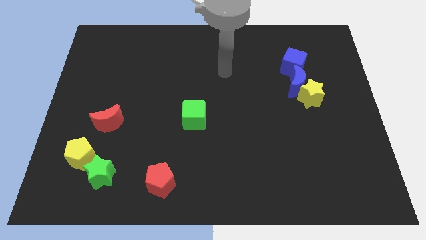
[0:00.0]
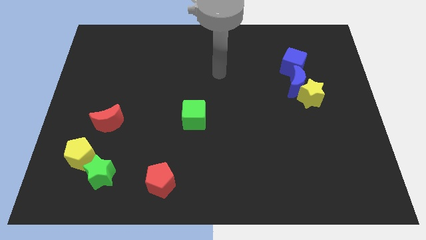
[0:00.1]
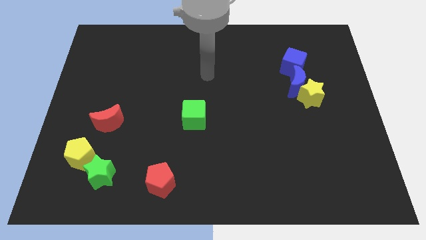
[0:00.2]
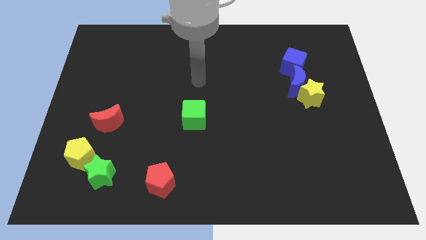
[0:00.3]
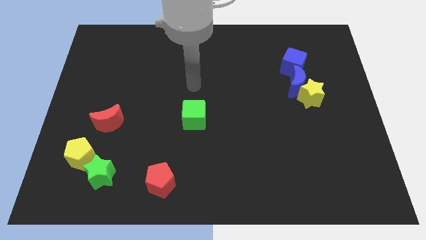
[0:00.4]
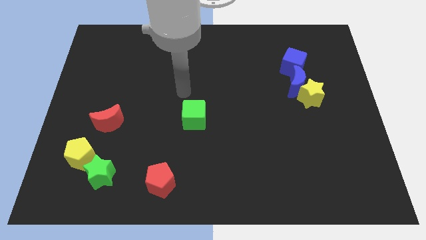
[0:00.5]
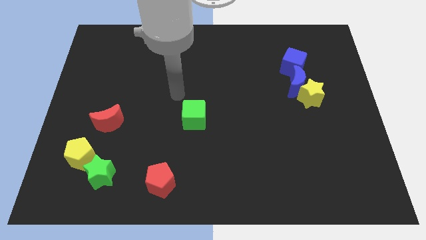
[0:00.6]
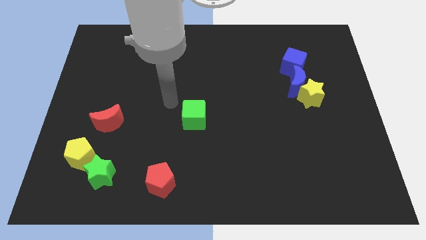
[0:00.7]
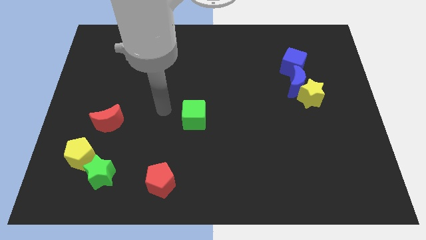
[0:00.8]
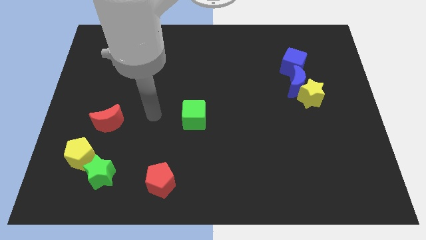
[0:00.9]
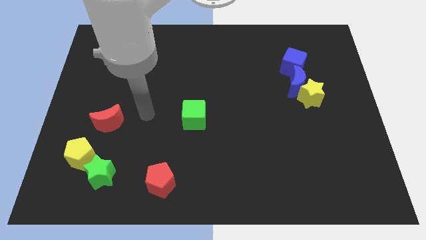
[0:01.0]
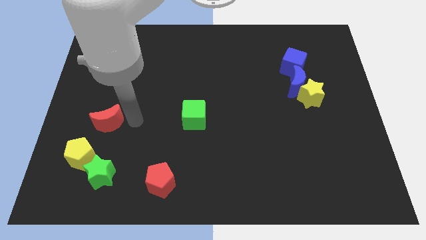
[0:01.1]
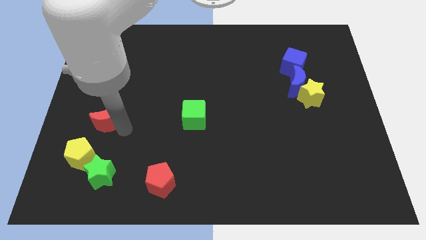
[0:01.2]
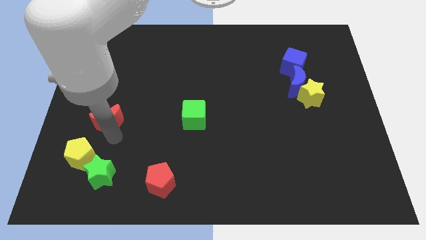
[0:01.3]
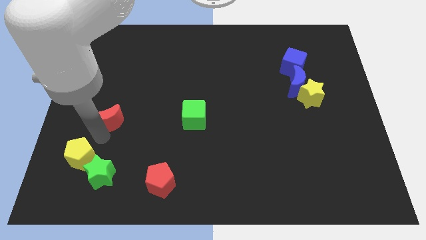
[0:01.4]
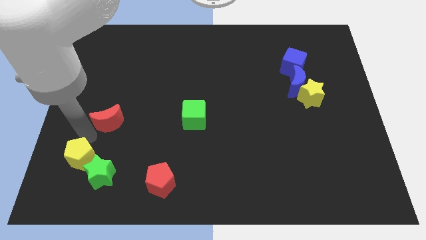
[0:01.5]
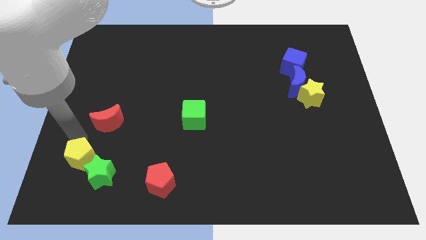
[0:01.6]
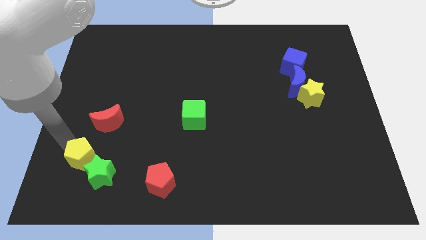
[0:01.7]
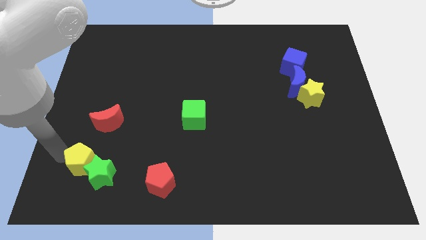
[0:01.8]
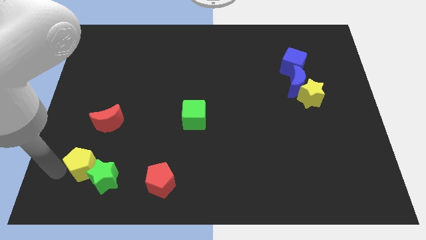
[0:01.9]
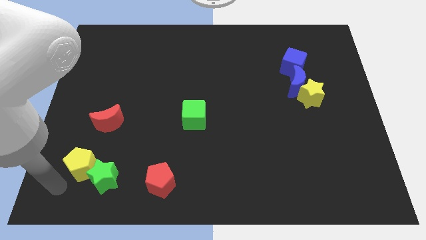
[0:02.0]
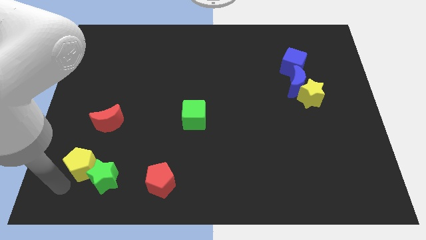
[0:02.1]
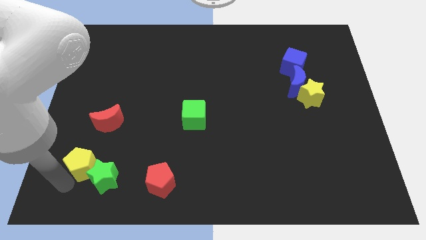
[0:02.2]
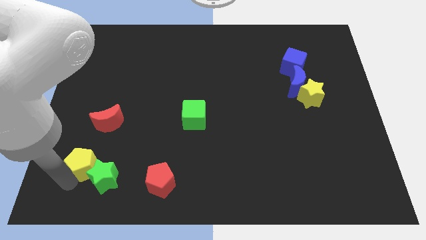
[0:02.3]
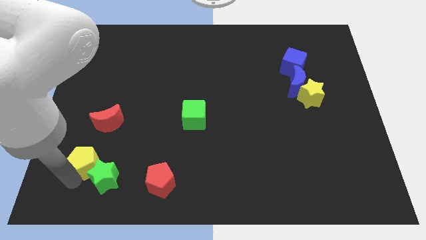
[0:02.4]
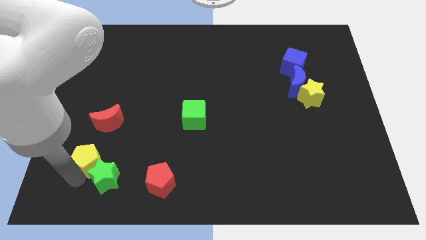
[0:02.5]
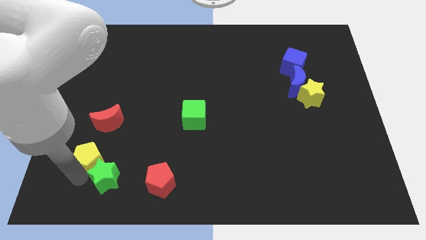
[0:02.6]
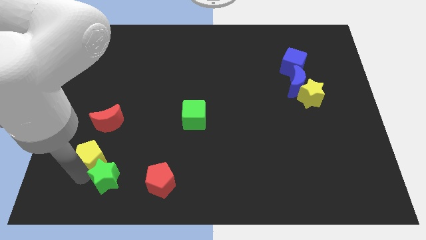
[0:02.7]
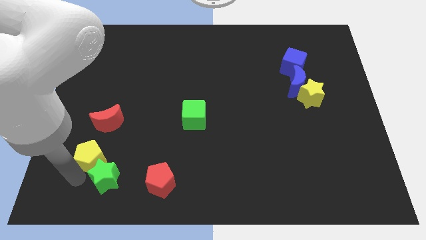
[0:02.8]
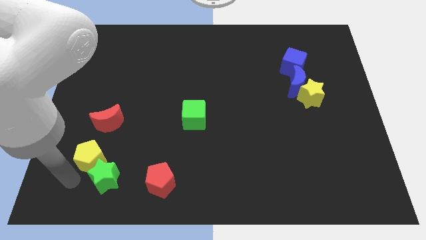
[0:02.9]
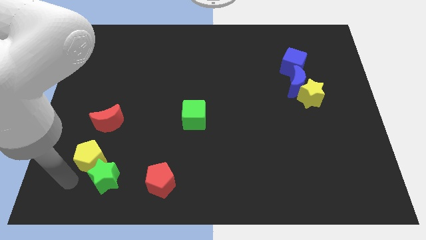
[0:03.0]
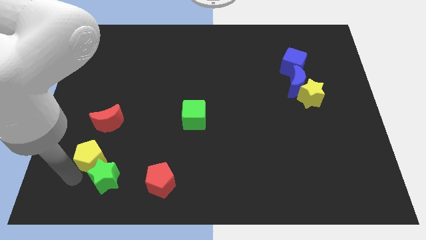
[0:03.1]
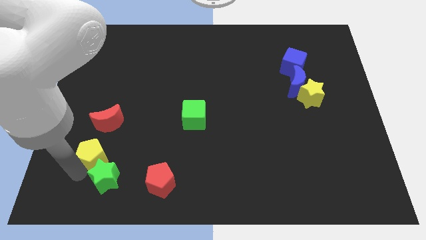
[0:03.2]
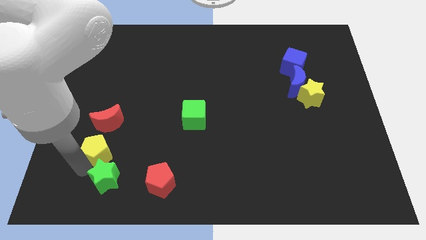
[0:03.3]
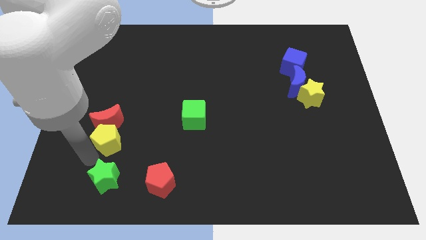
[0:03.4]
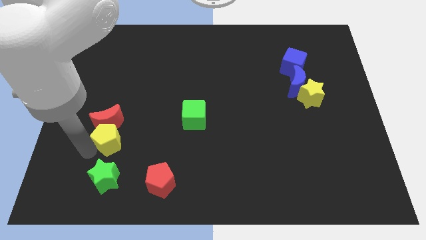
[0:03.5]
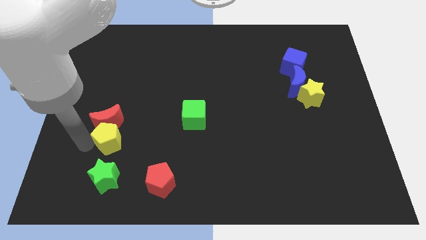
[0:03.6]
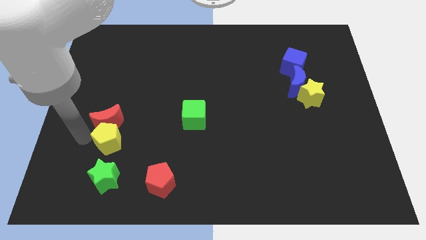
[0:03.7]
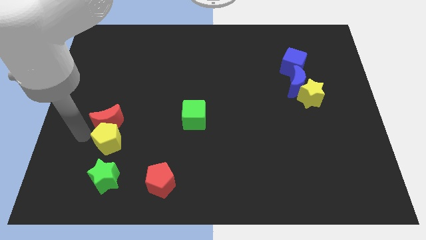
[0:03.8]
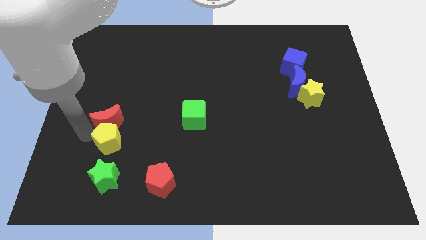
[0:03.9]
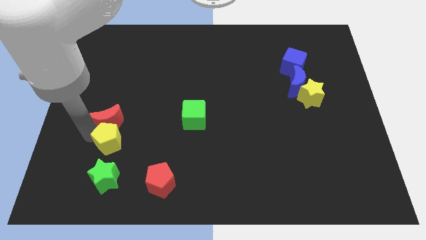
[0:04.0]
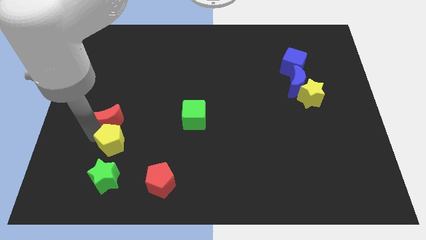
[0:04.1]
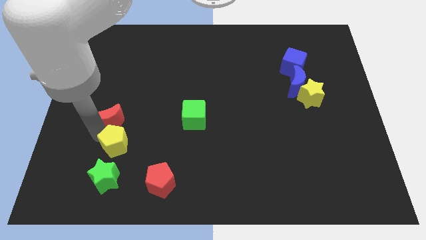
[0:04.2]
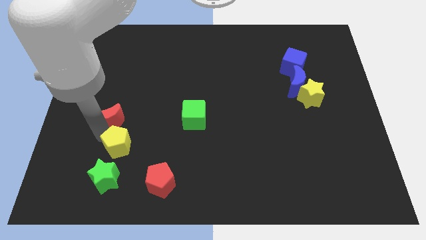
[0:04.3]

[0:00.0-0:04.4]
move the yellow pentagon a little to the right

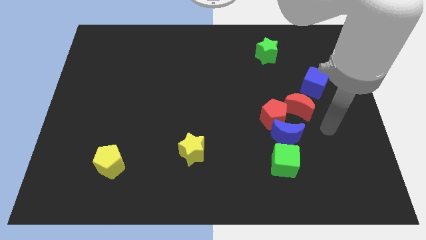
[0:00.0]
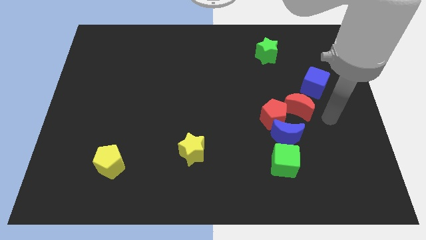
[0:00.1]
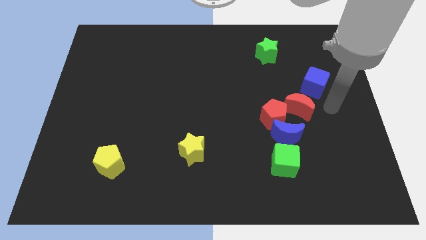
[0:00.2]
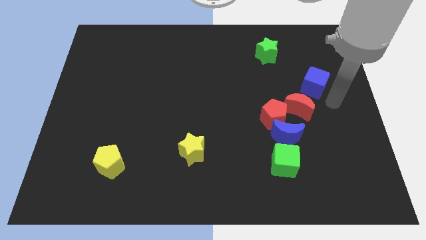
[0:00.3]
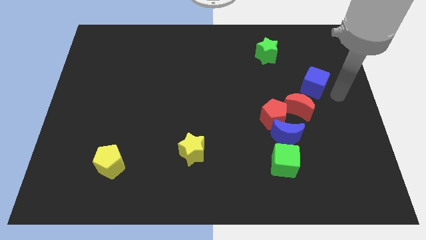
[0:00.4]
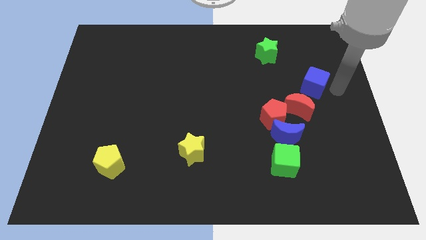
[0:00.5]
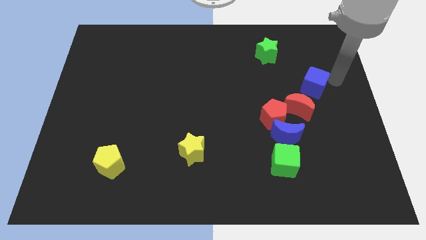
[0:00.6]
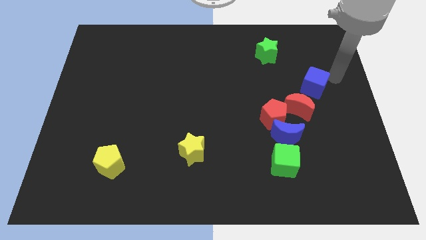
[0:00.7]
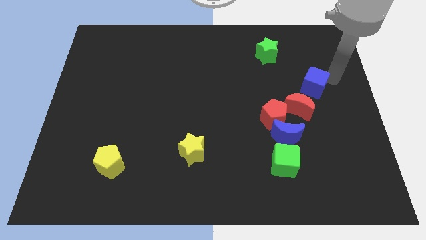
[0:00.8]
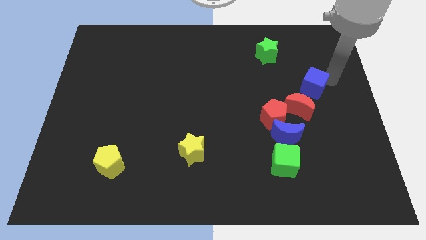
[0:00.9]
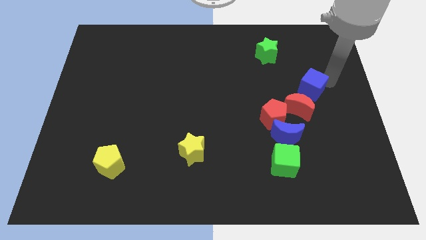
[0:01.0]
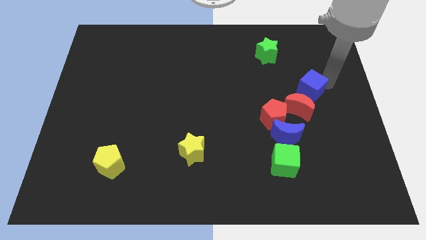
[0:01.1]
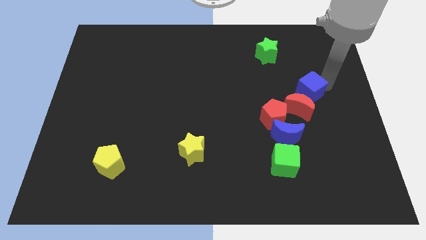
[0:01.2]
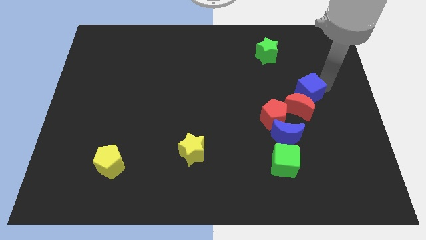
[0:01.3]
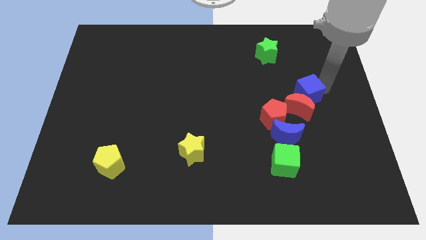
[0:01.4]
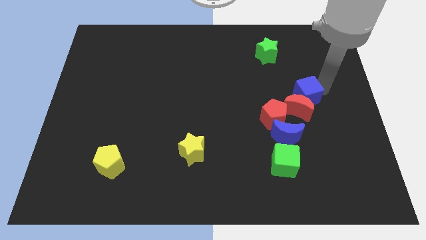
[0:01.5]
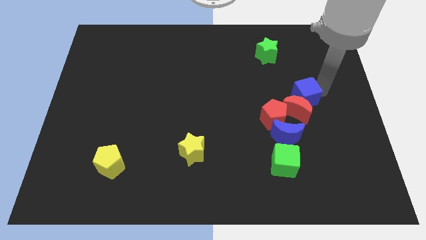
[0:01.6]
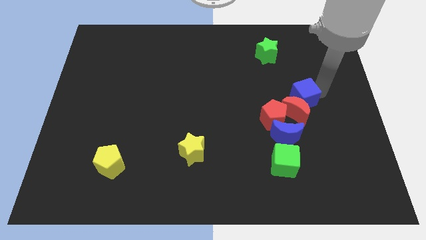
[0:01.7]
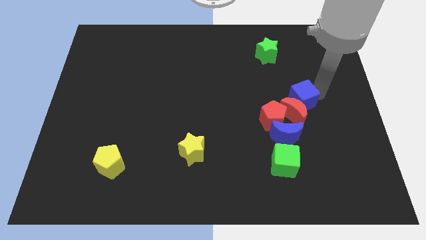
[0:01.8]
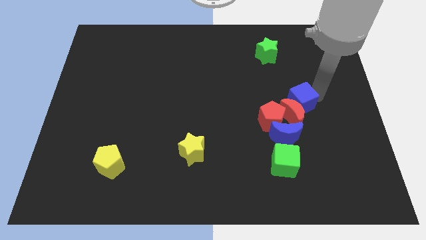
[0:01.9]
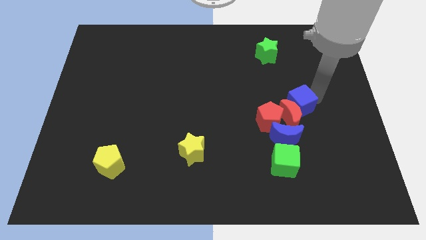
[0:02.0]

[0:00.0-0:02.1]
move the blue cube diagonally down and left slightly

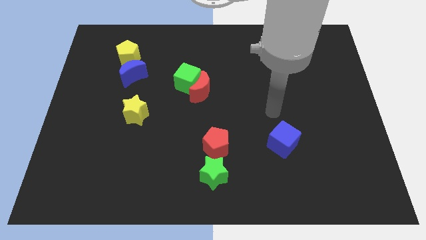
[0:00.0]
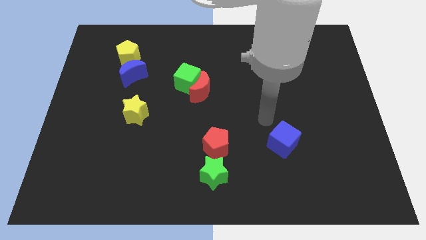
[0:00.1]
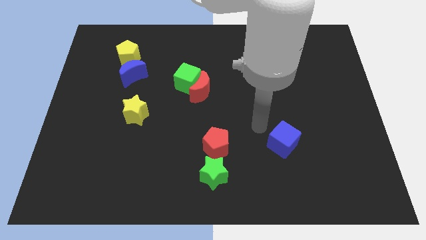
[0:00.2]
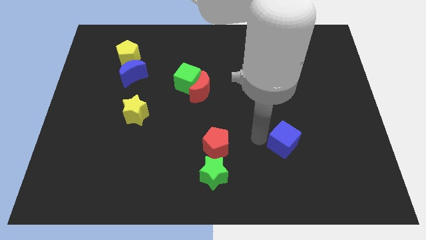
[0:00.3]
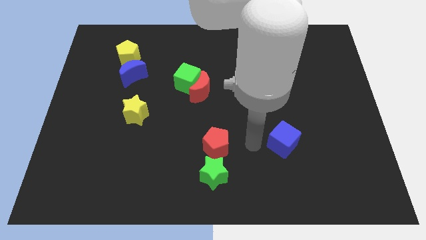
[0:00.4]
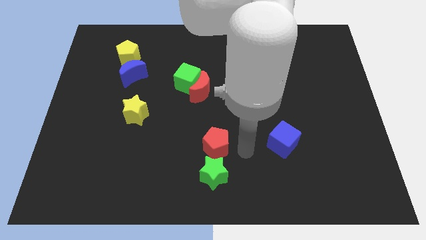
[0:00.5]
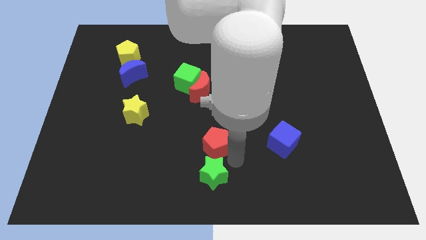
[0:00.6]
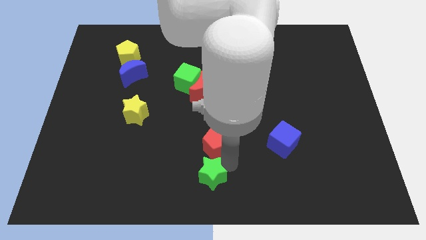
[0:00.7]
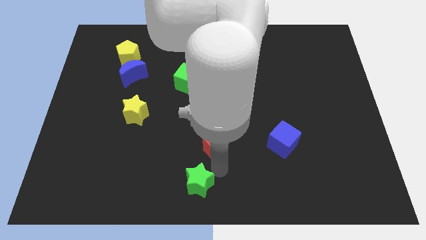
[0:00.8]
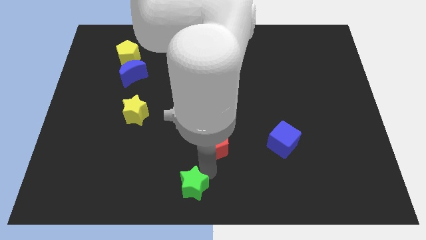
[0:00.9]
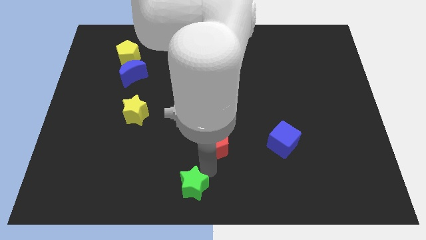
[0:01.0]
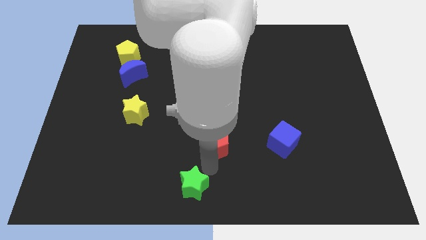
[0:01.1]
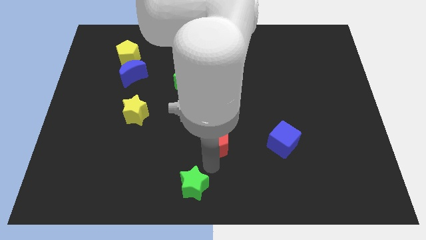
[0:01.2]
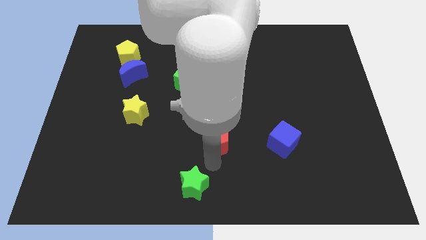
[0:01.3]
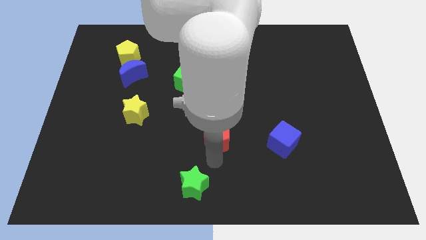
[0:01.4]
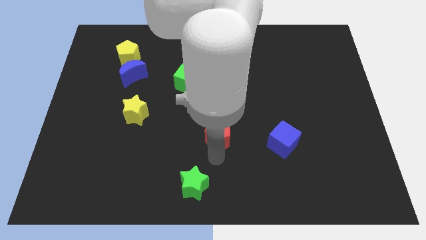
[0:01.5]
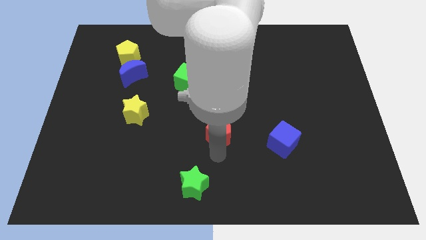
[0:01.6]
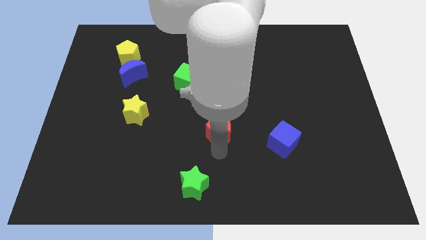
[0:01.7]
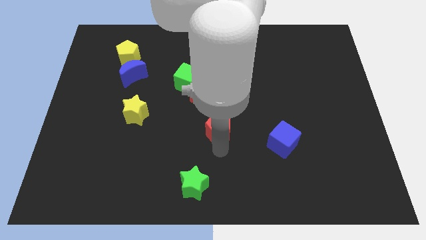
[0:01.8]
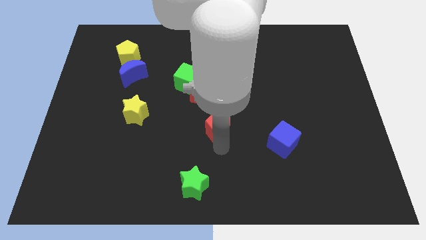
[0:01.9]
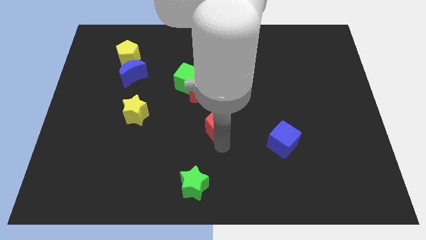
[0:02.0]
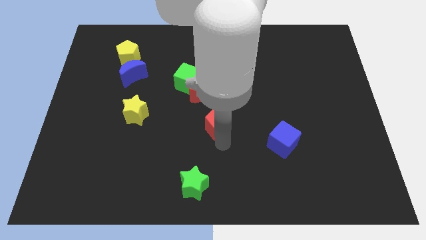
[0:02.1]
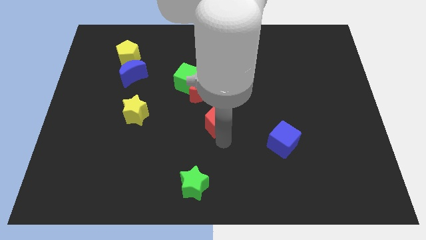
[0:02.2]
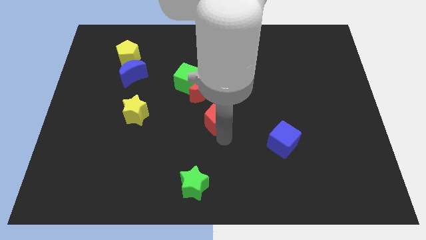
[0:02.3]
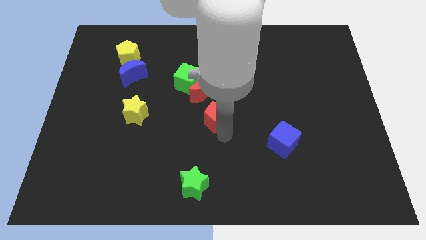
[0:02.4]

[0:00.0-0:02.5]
push the red pentagon upwards somewhat
